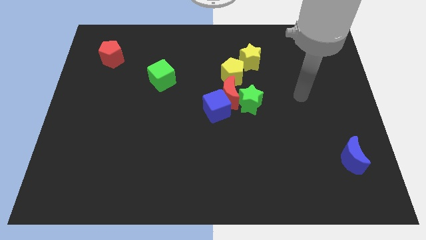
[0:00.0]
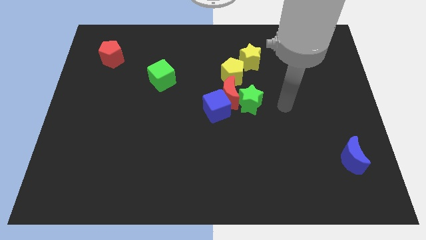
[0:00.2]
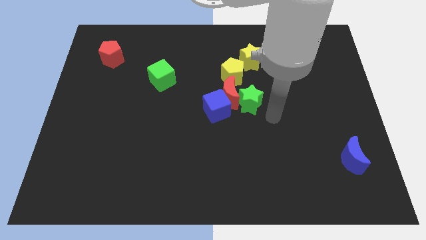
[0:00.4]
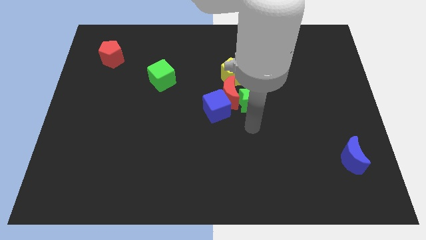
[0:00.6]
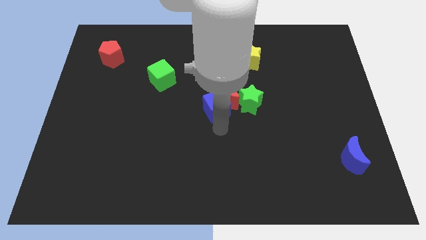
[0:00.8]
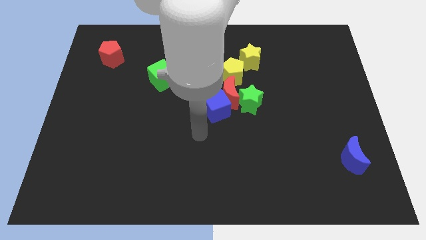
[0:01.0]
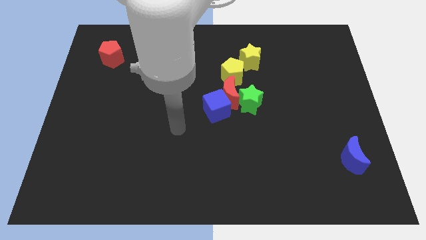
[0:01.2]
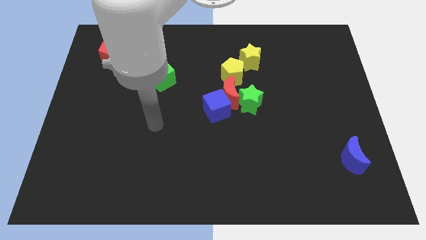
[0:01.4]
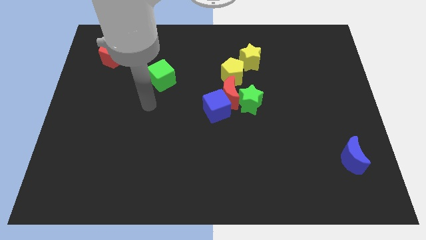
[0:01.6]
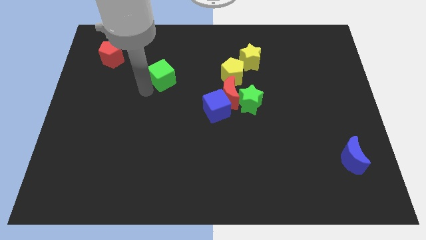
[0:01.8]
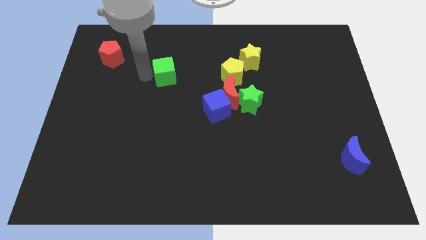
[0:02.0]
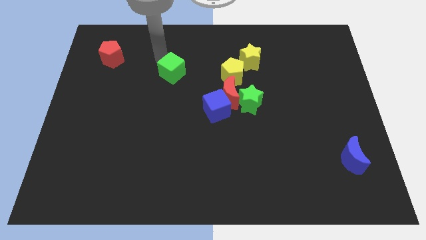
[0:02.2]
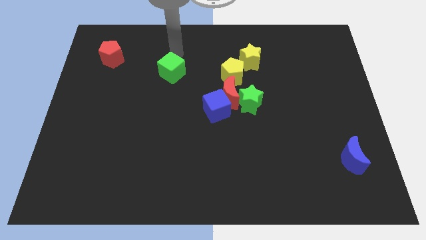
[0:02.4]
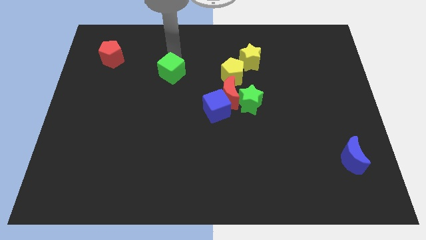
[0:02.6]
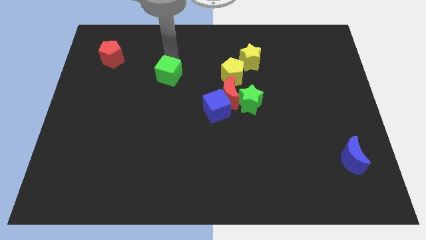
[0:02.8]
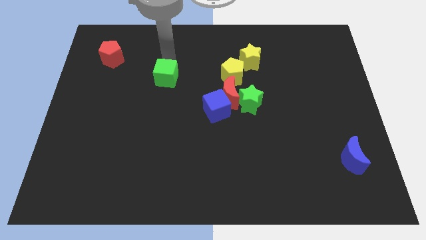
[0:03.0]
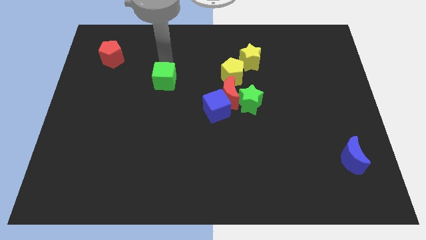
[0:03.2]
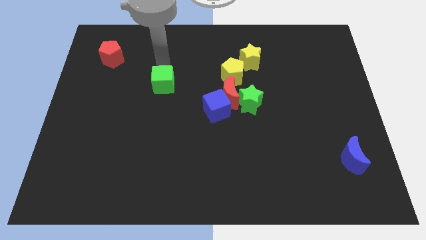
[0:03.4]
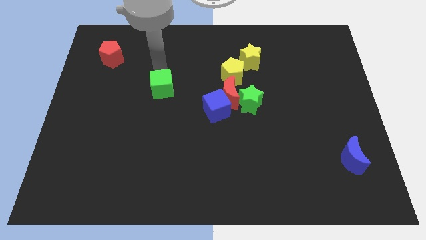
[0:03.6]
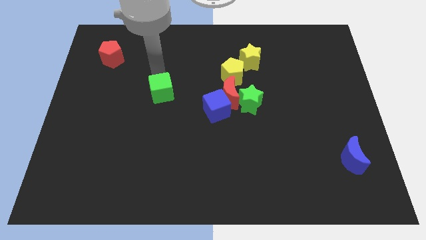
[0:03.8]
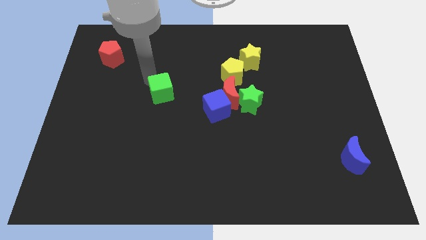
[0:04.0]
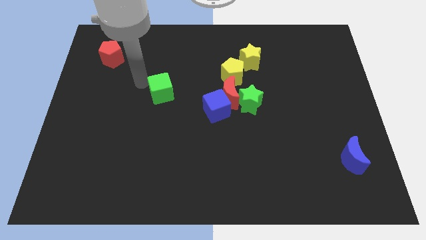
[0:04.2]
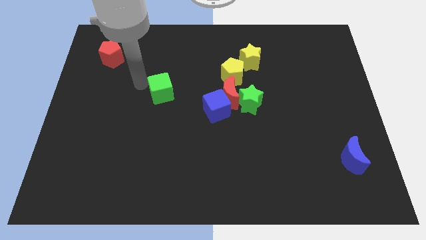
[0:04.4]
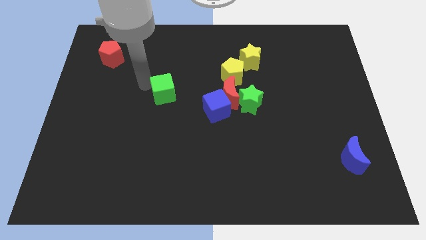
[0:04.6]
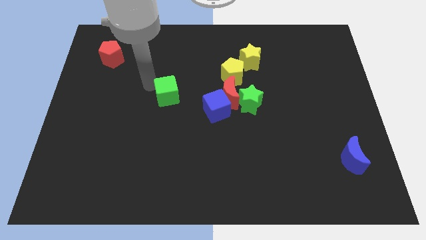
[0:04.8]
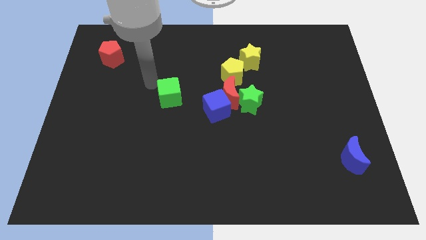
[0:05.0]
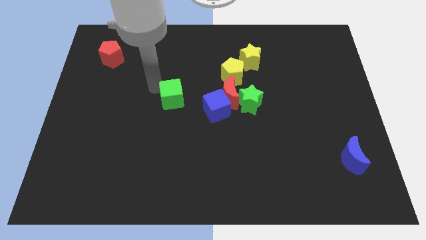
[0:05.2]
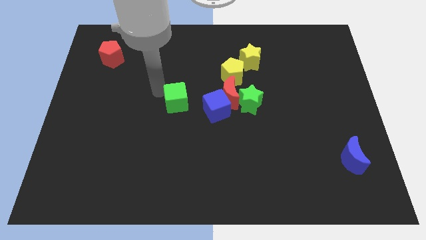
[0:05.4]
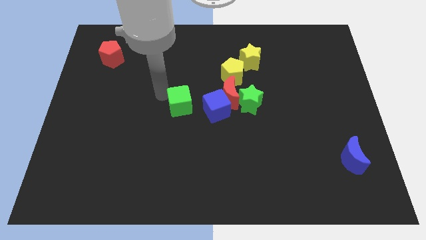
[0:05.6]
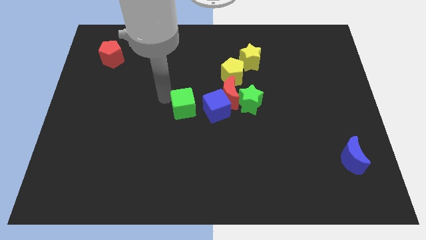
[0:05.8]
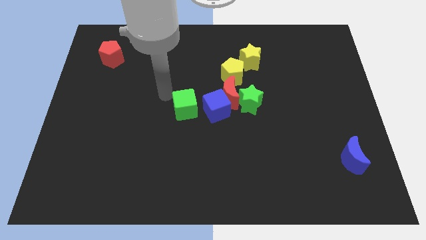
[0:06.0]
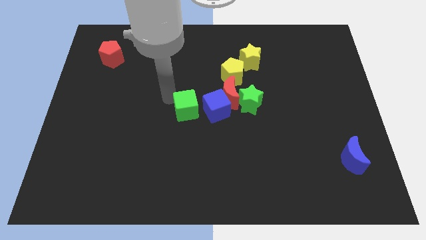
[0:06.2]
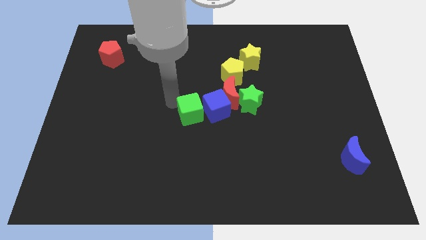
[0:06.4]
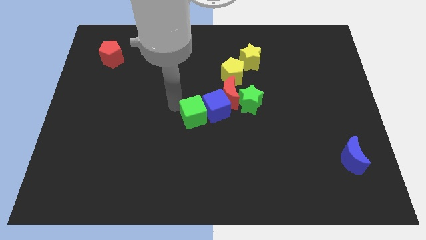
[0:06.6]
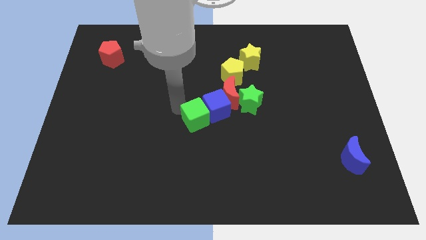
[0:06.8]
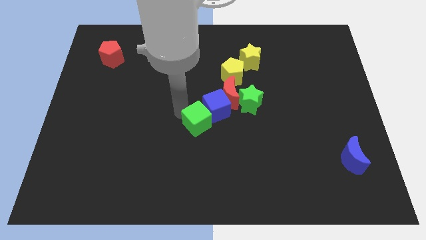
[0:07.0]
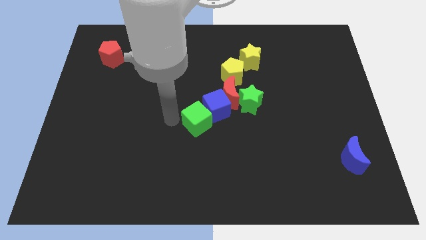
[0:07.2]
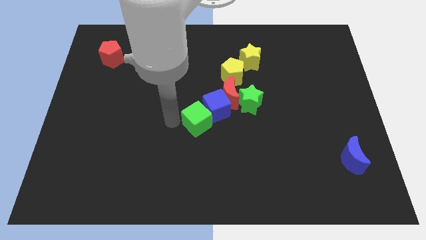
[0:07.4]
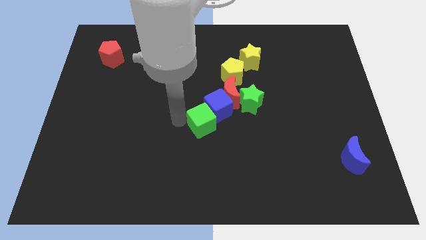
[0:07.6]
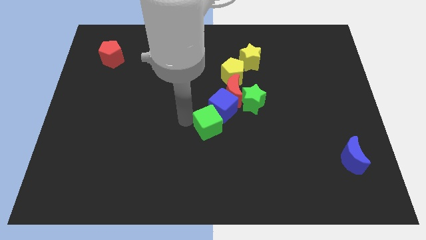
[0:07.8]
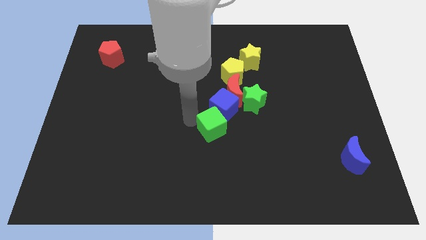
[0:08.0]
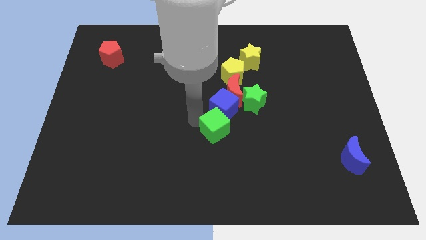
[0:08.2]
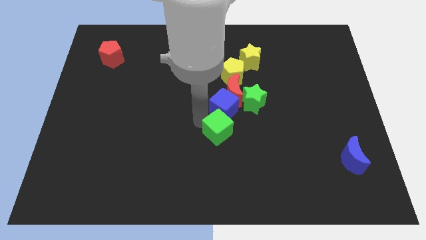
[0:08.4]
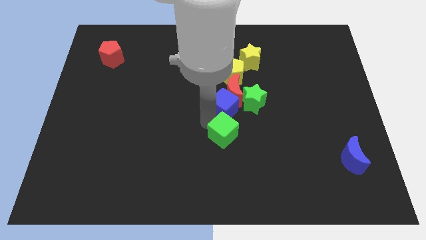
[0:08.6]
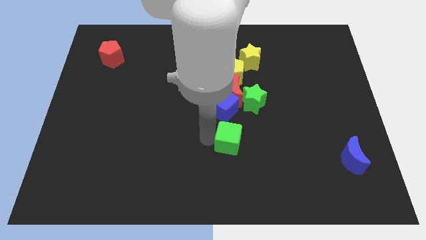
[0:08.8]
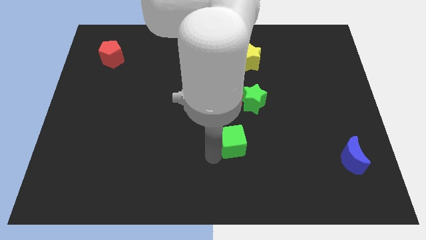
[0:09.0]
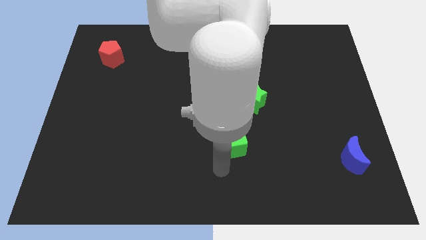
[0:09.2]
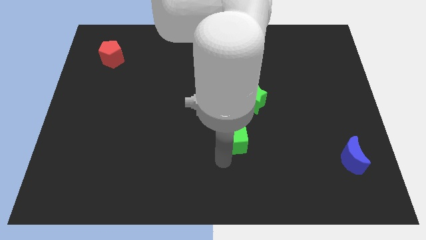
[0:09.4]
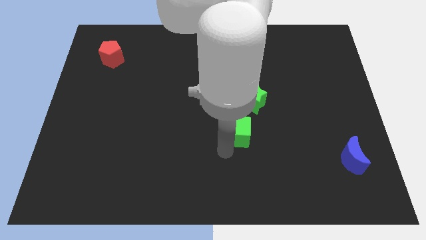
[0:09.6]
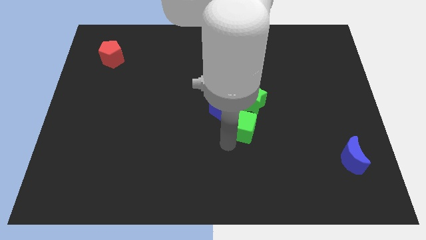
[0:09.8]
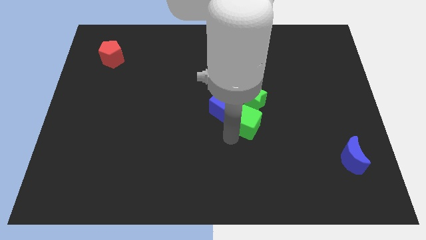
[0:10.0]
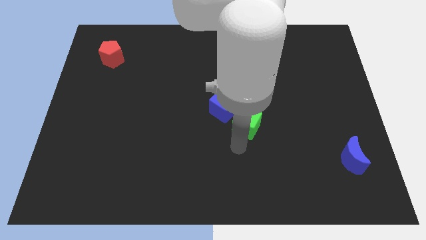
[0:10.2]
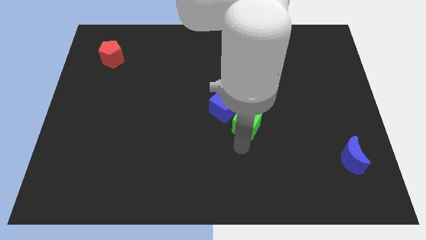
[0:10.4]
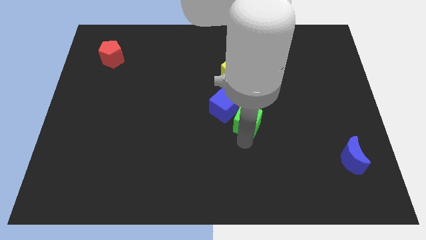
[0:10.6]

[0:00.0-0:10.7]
slide the green cube towards the green star

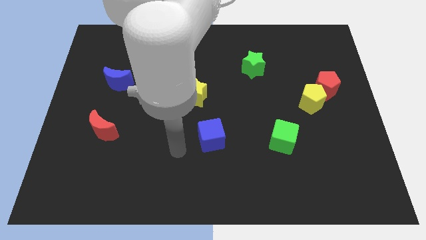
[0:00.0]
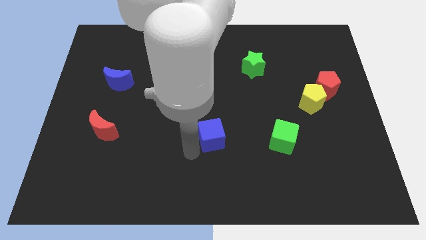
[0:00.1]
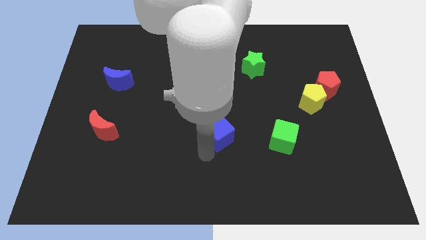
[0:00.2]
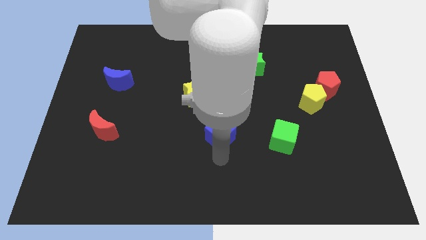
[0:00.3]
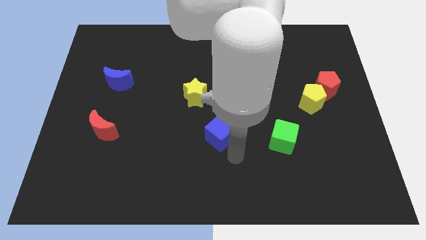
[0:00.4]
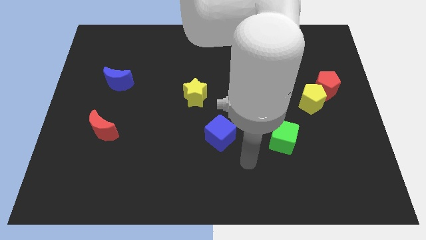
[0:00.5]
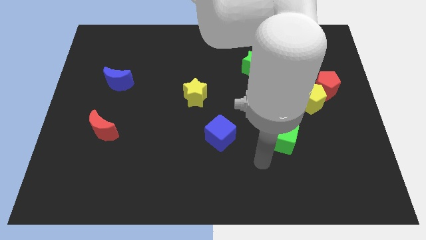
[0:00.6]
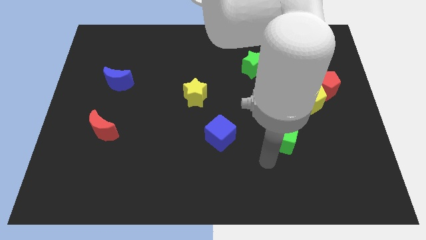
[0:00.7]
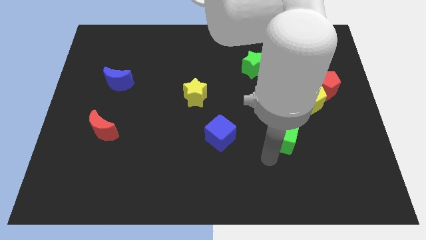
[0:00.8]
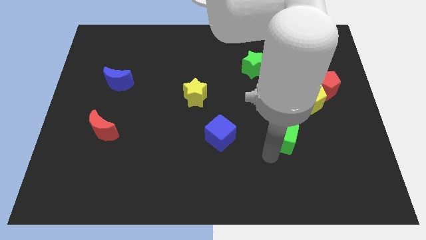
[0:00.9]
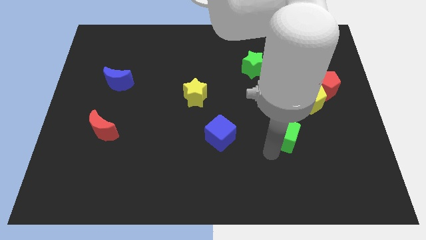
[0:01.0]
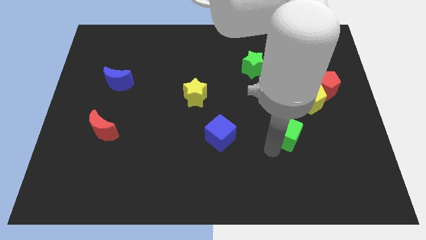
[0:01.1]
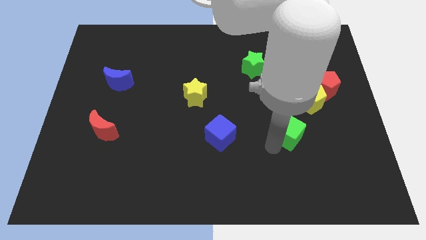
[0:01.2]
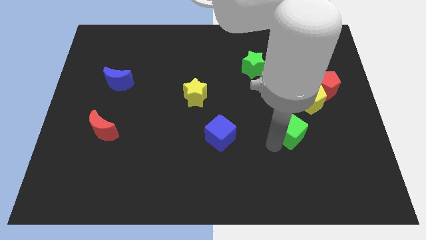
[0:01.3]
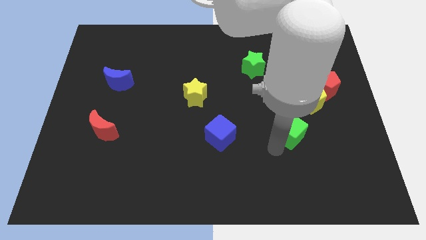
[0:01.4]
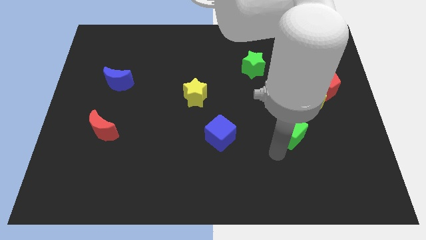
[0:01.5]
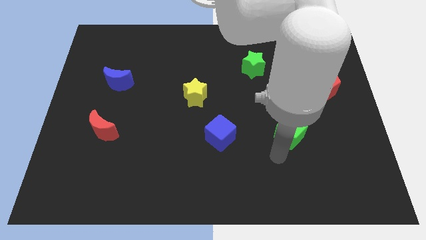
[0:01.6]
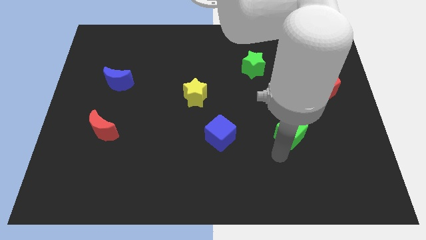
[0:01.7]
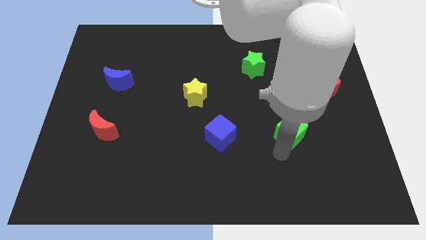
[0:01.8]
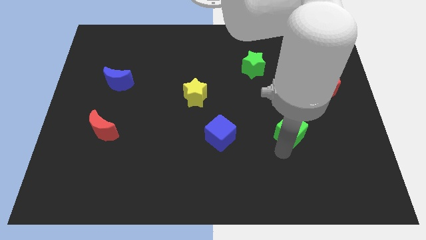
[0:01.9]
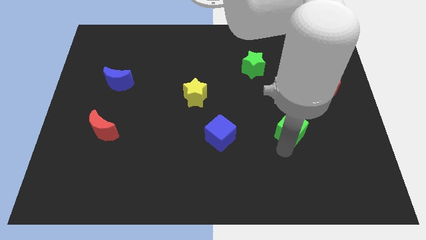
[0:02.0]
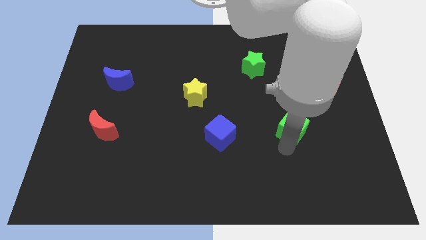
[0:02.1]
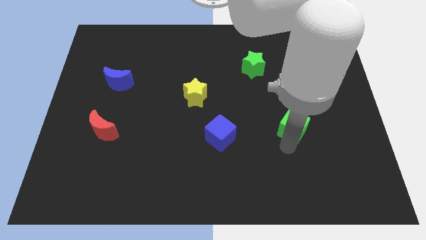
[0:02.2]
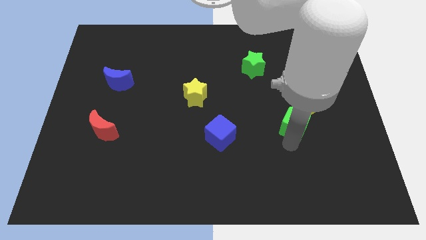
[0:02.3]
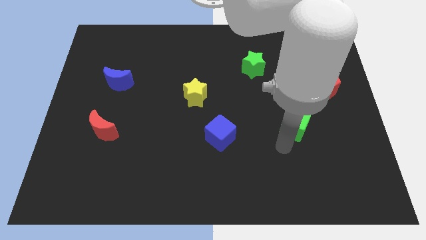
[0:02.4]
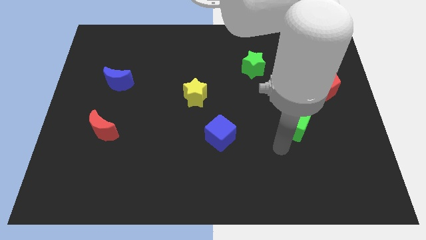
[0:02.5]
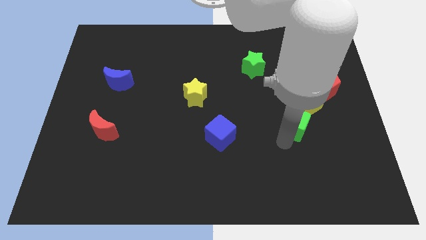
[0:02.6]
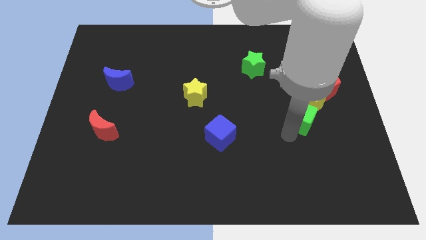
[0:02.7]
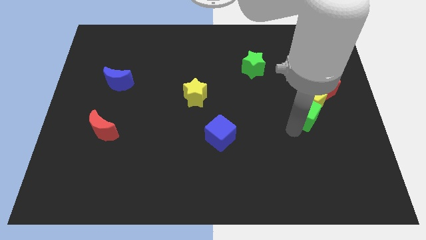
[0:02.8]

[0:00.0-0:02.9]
slide the green cube towards the yellow pentagon
